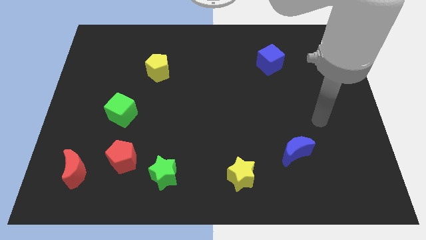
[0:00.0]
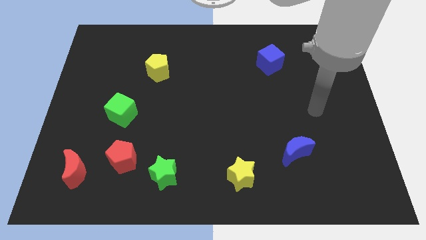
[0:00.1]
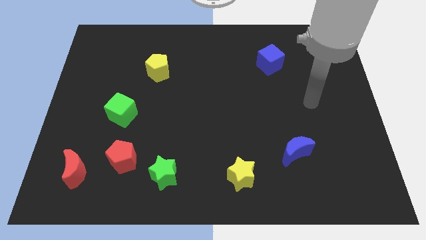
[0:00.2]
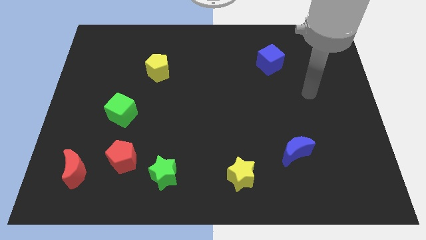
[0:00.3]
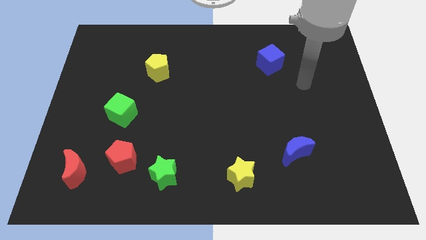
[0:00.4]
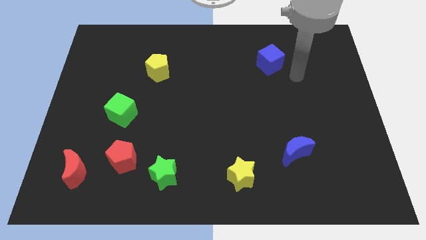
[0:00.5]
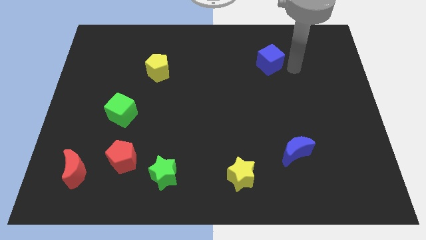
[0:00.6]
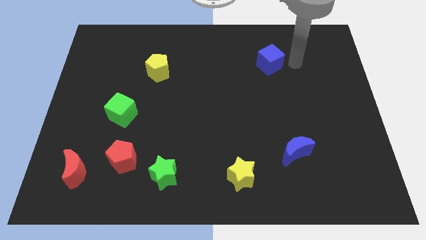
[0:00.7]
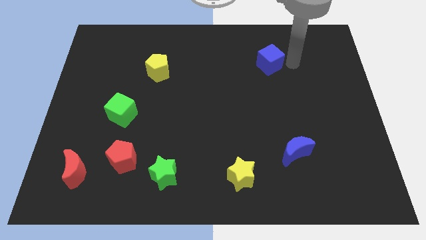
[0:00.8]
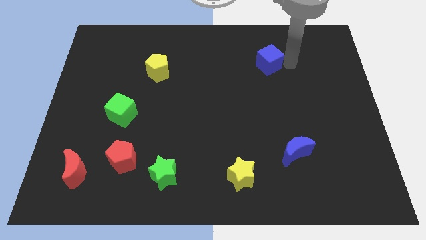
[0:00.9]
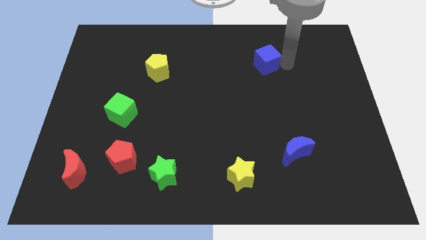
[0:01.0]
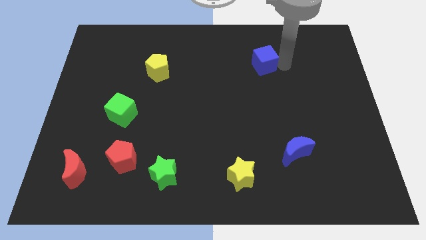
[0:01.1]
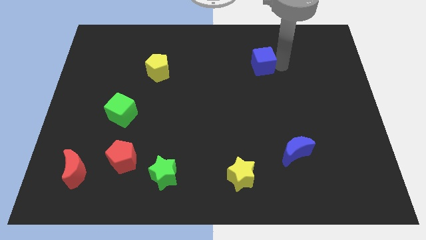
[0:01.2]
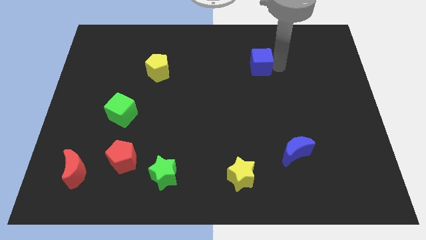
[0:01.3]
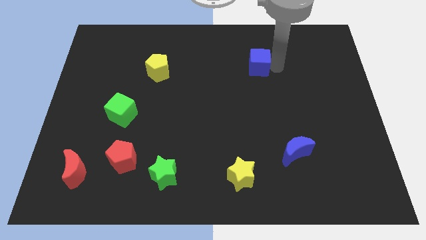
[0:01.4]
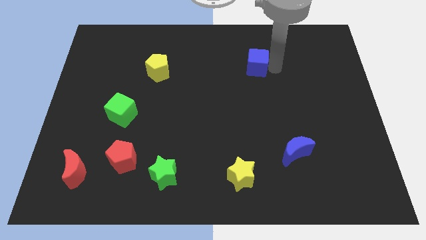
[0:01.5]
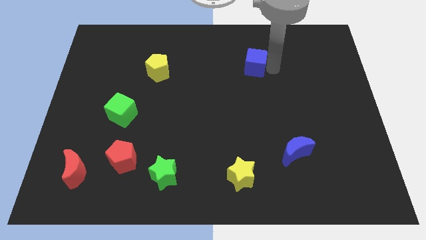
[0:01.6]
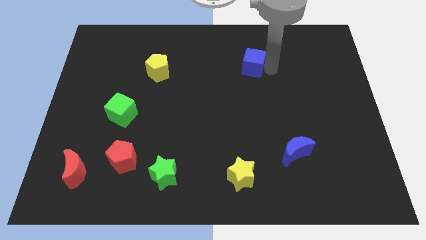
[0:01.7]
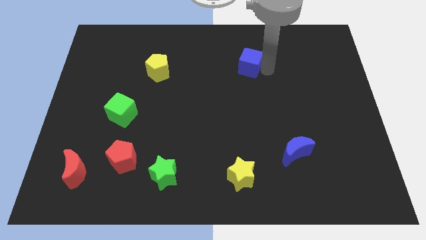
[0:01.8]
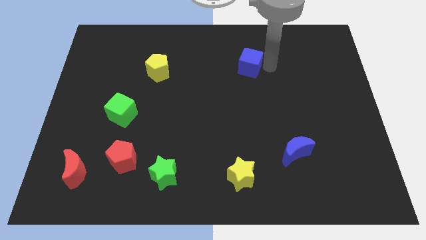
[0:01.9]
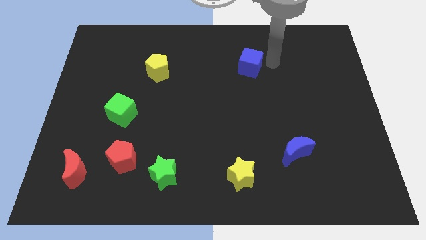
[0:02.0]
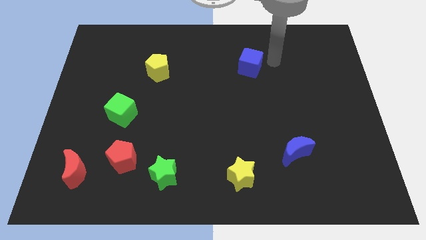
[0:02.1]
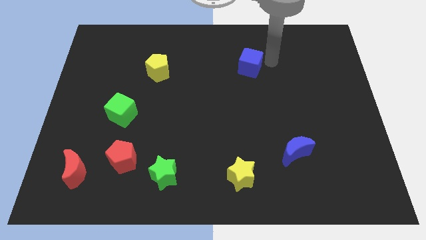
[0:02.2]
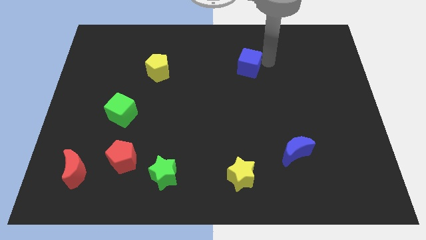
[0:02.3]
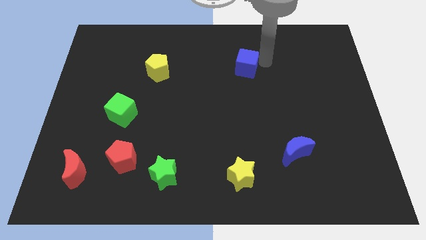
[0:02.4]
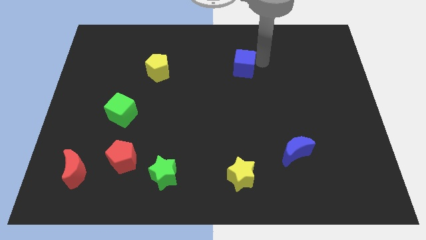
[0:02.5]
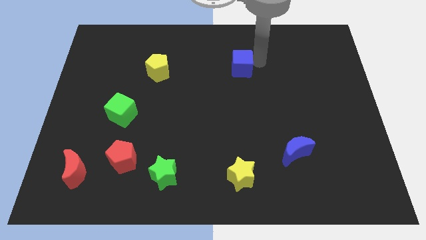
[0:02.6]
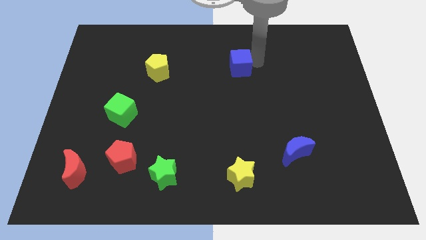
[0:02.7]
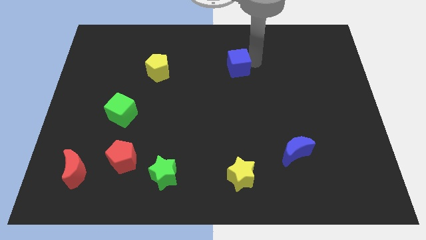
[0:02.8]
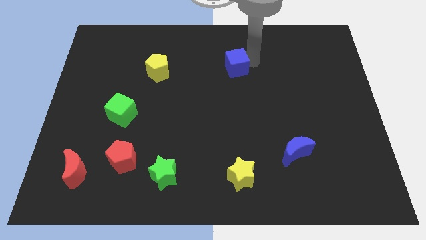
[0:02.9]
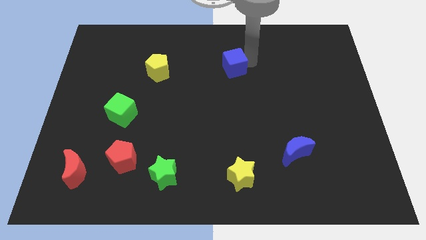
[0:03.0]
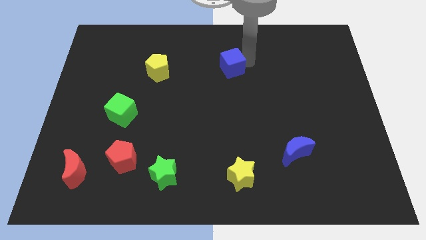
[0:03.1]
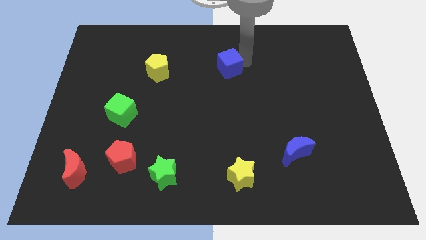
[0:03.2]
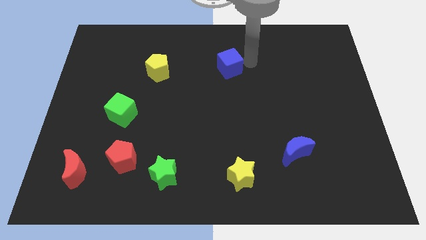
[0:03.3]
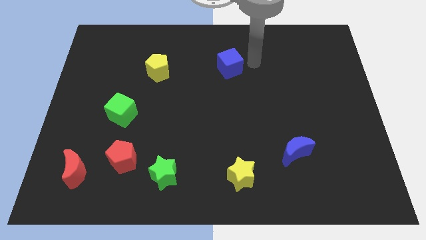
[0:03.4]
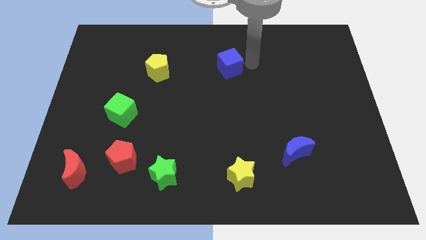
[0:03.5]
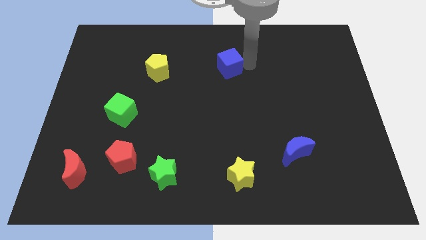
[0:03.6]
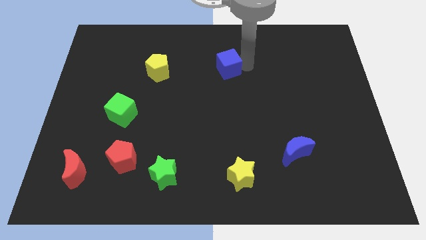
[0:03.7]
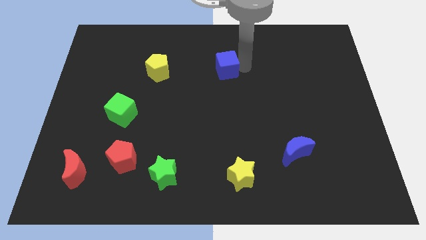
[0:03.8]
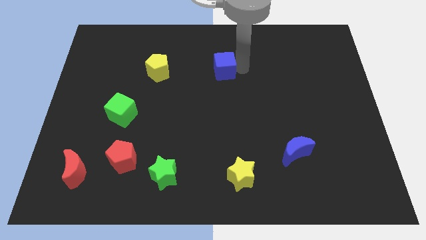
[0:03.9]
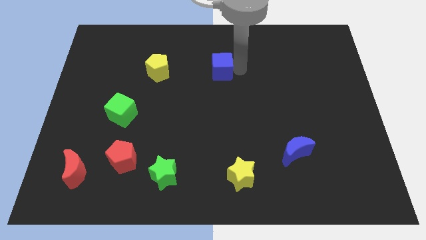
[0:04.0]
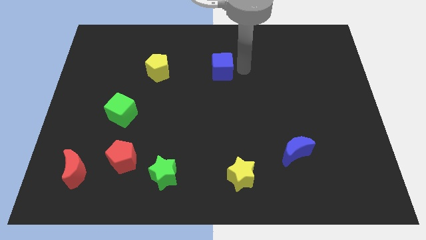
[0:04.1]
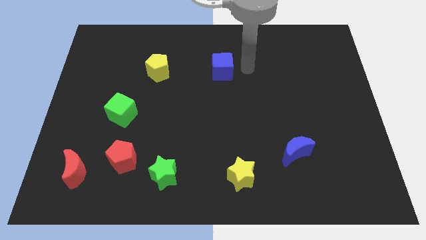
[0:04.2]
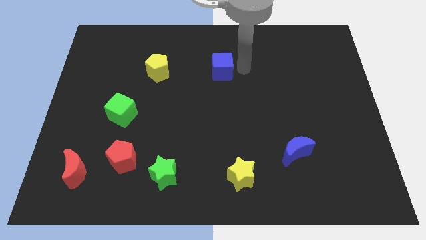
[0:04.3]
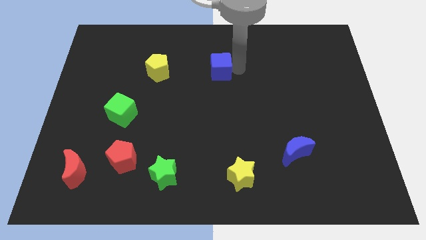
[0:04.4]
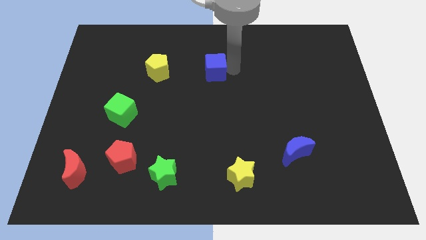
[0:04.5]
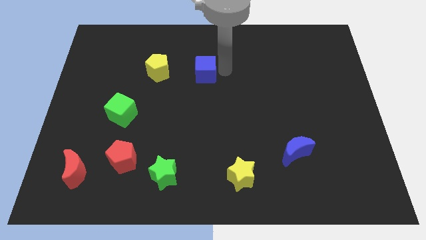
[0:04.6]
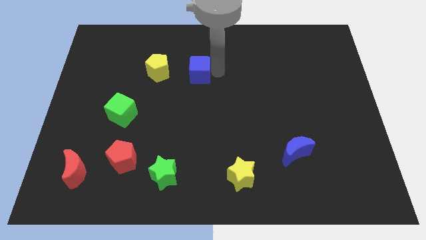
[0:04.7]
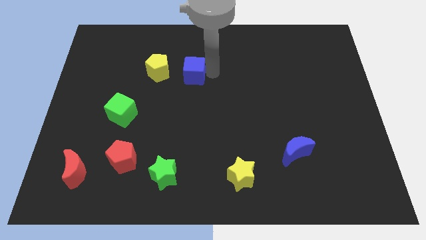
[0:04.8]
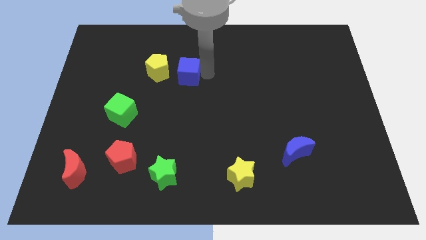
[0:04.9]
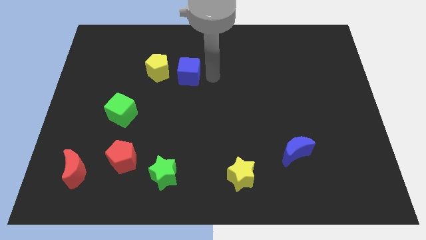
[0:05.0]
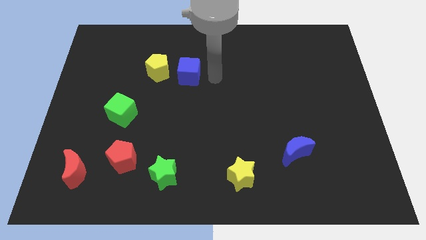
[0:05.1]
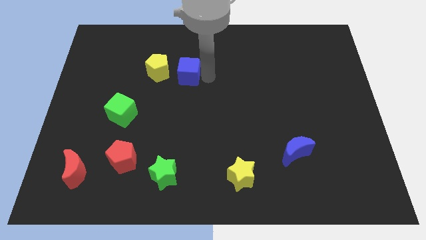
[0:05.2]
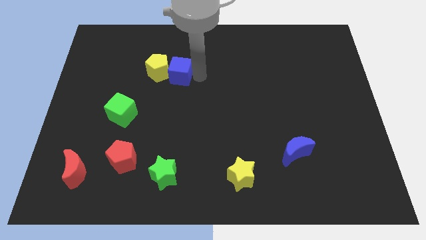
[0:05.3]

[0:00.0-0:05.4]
move the blue cube to the yellow pentagon

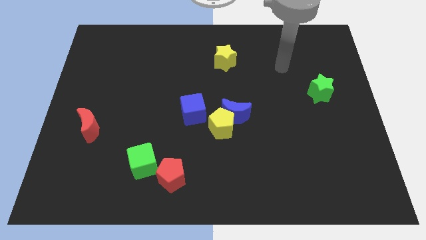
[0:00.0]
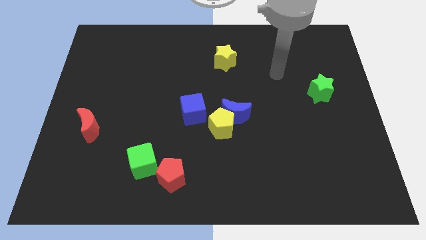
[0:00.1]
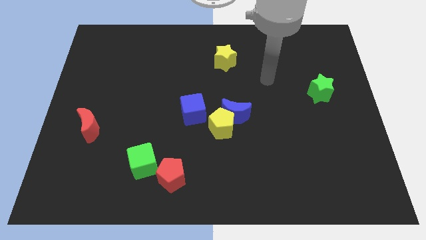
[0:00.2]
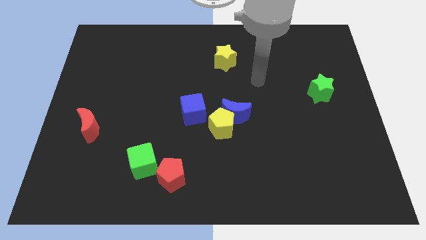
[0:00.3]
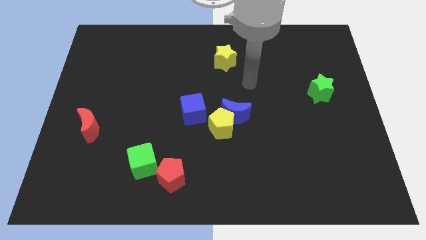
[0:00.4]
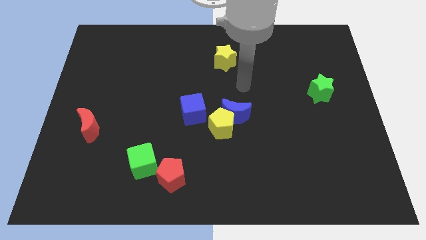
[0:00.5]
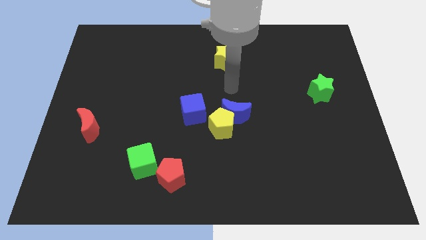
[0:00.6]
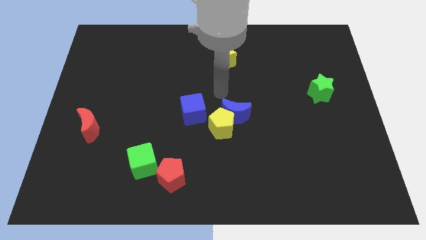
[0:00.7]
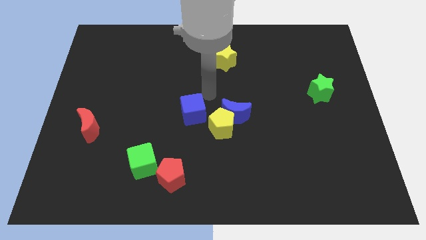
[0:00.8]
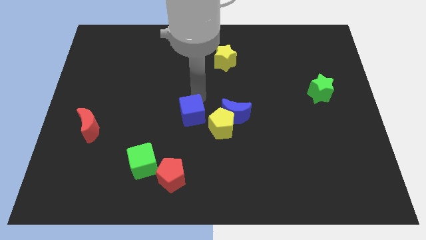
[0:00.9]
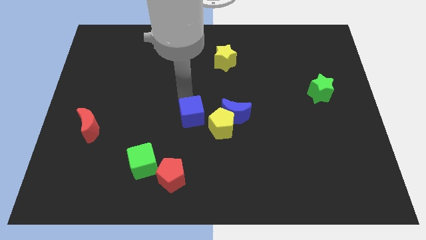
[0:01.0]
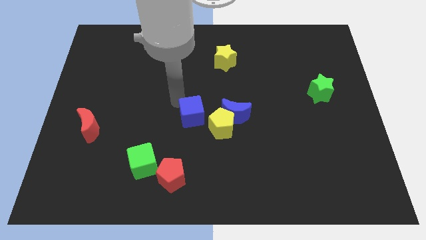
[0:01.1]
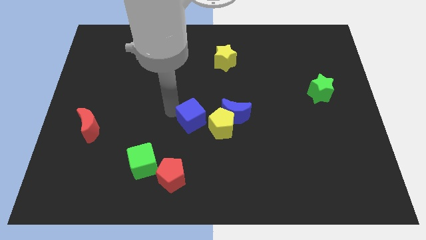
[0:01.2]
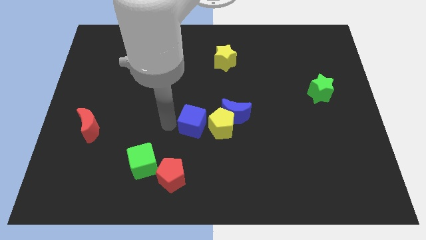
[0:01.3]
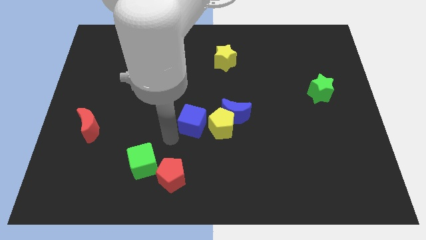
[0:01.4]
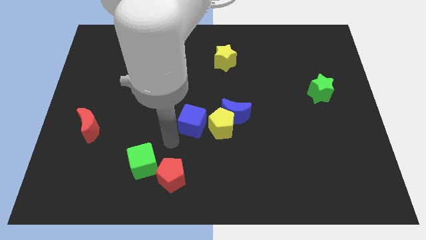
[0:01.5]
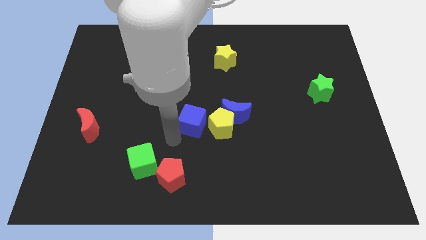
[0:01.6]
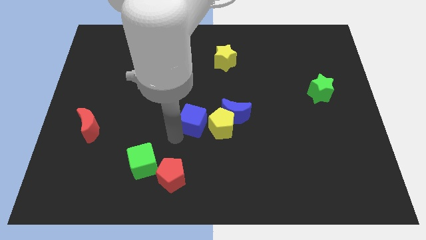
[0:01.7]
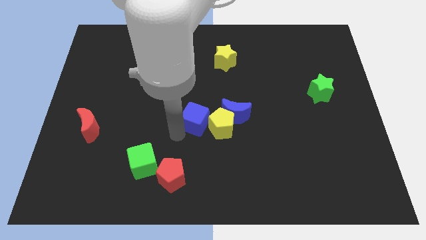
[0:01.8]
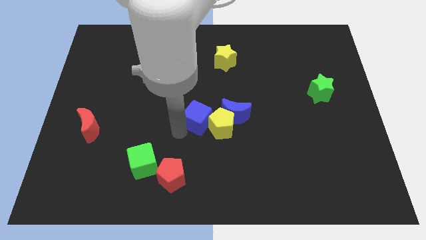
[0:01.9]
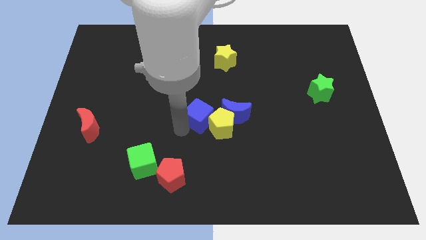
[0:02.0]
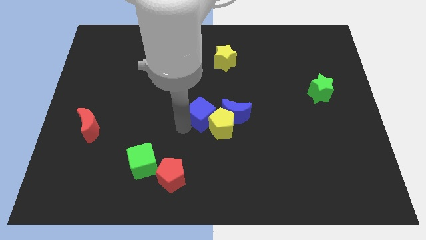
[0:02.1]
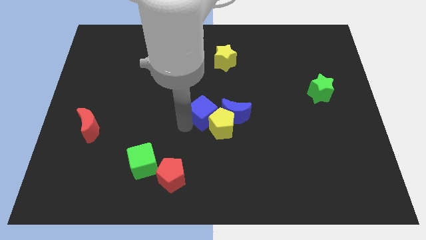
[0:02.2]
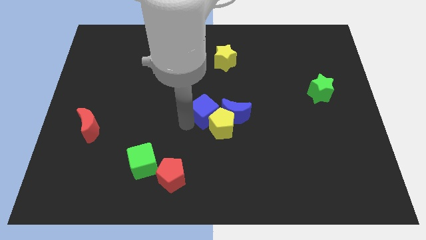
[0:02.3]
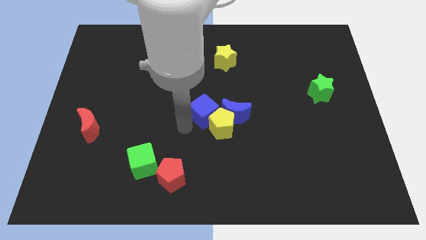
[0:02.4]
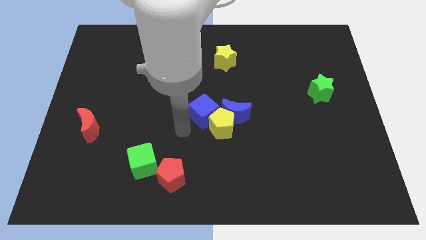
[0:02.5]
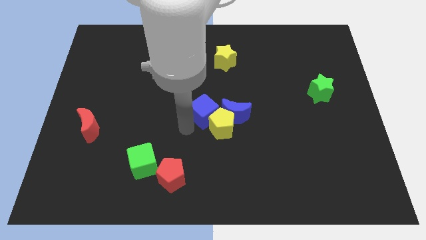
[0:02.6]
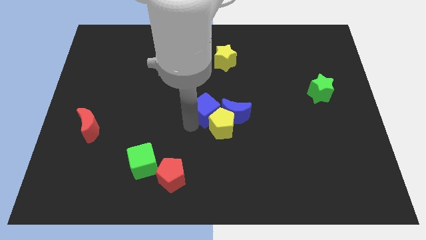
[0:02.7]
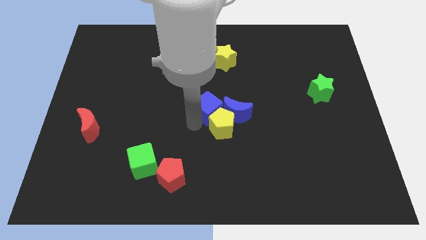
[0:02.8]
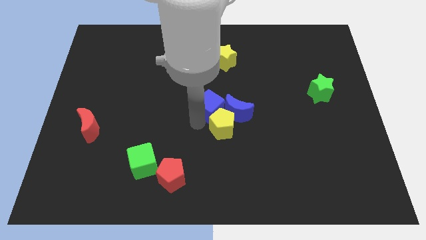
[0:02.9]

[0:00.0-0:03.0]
put the blue cube next to the blue moon
